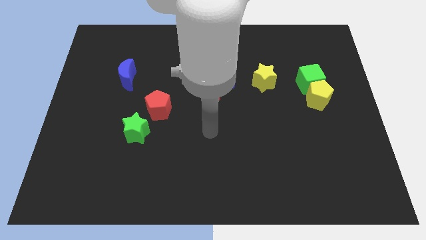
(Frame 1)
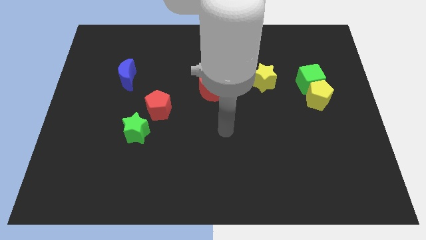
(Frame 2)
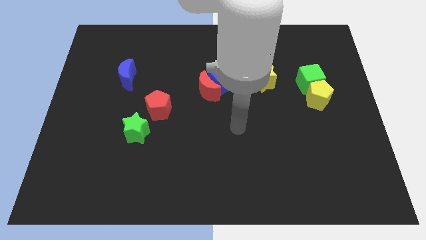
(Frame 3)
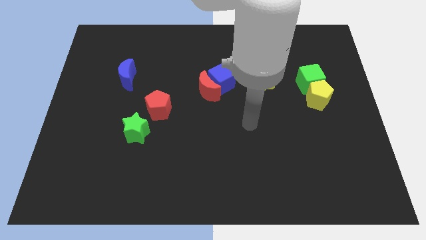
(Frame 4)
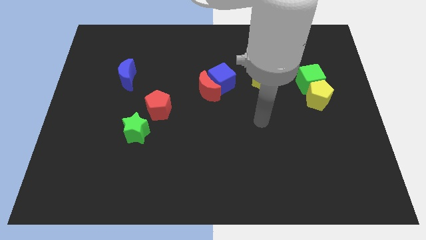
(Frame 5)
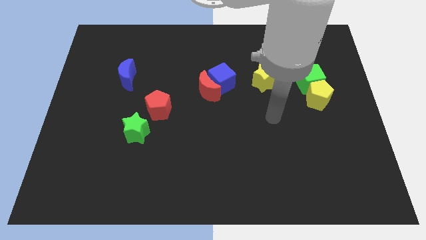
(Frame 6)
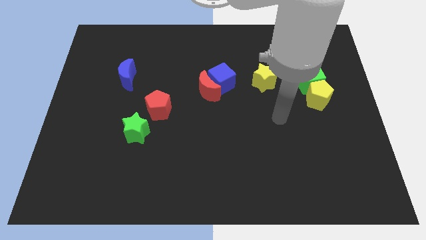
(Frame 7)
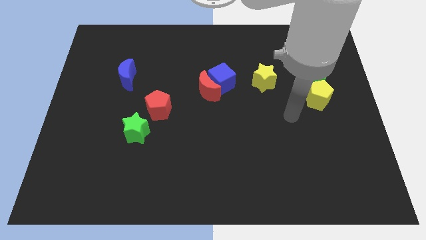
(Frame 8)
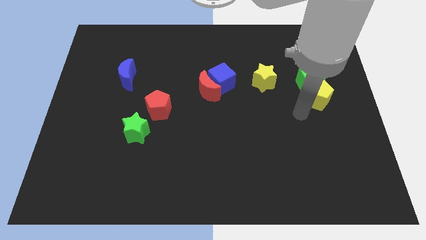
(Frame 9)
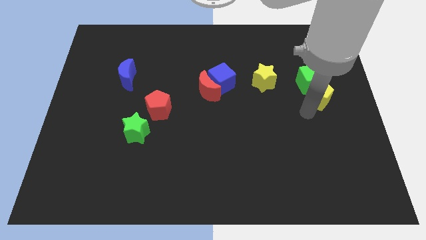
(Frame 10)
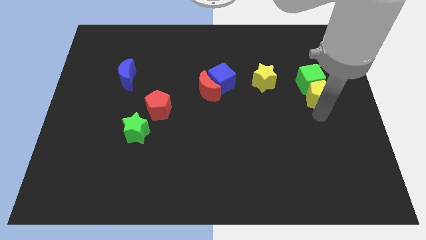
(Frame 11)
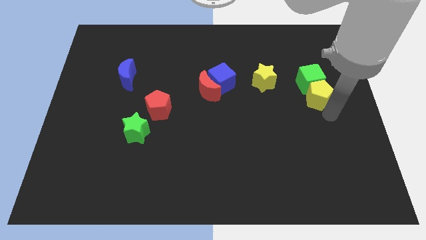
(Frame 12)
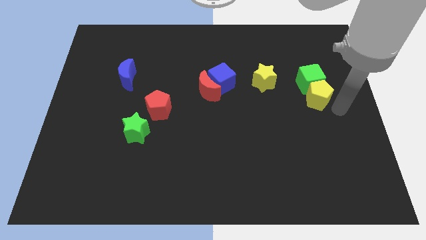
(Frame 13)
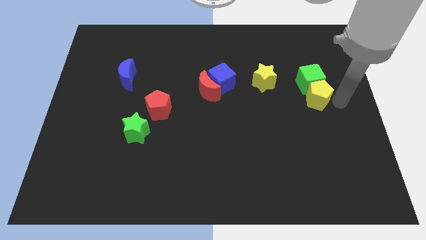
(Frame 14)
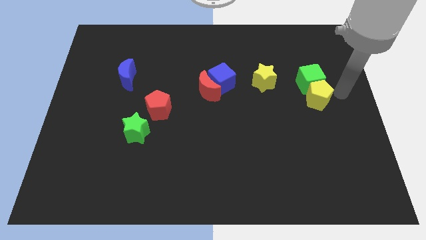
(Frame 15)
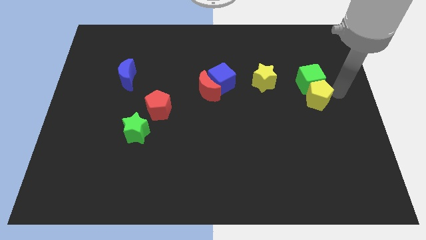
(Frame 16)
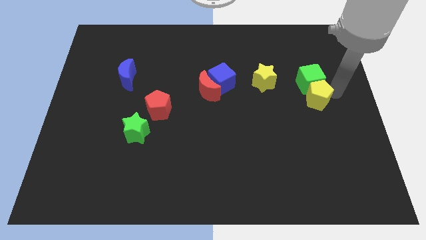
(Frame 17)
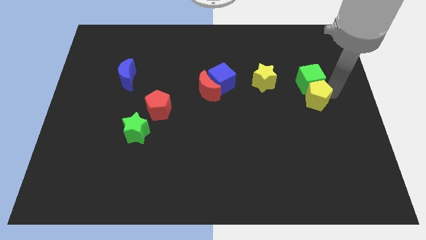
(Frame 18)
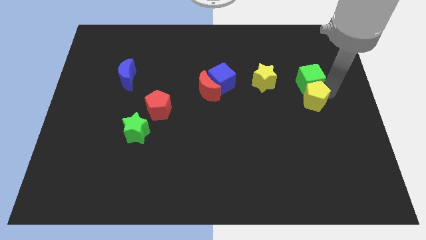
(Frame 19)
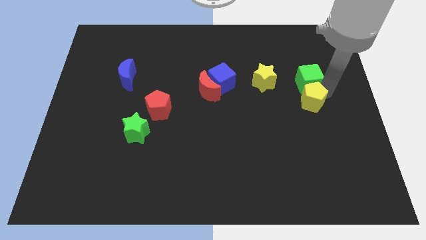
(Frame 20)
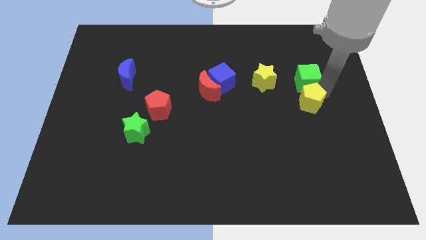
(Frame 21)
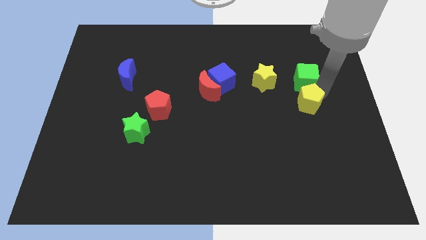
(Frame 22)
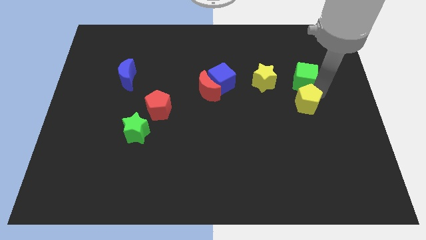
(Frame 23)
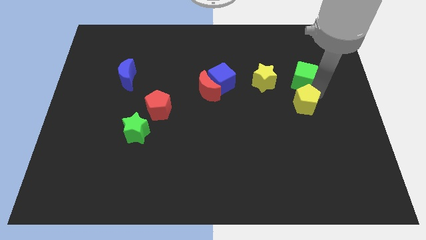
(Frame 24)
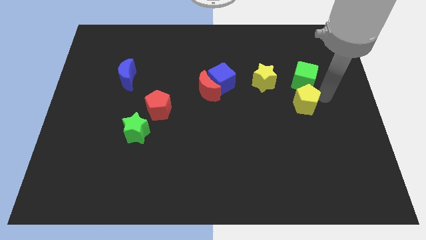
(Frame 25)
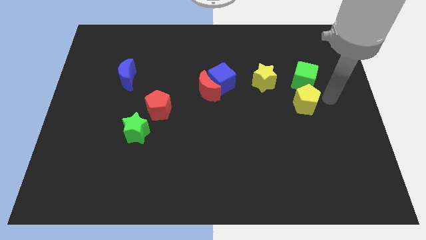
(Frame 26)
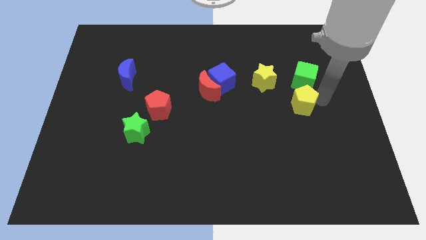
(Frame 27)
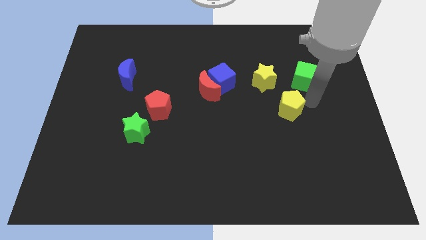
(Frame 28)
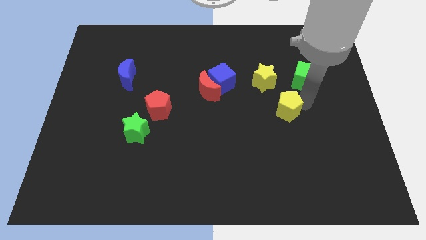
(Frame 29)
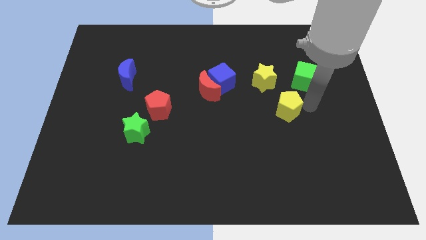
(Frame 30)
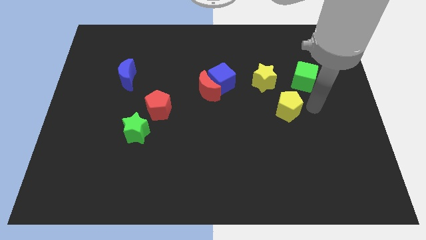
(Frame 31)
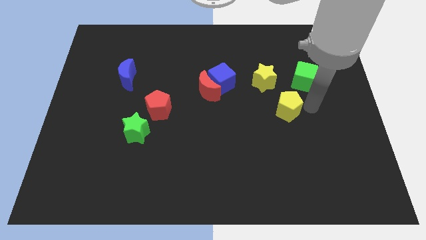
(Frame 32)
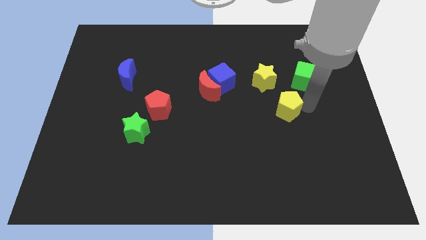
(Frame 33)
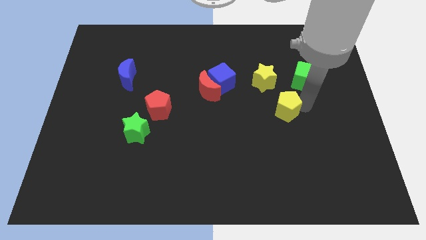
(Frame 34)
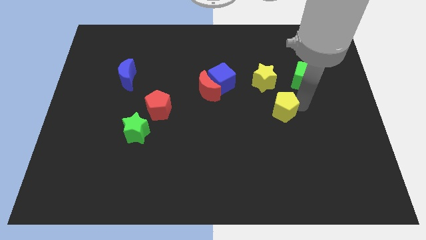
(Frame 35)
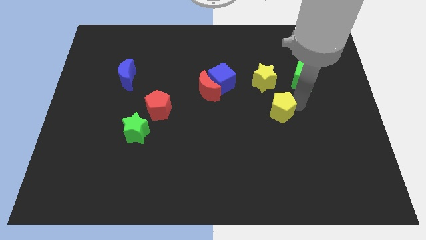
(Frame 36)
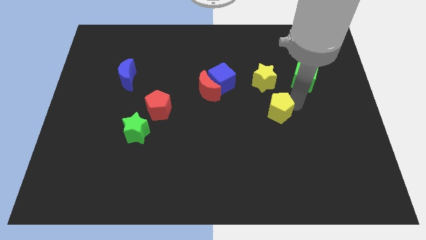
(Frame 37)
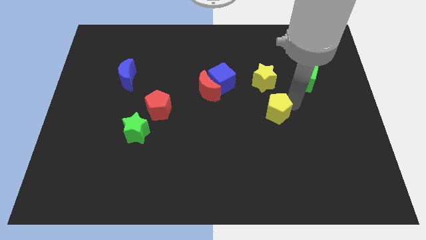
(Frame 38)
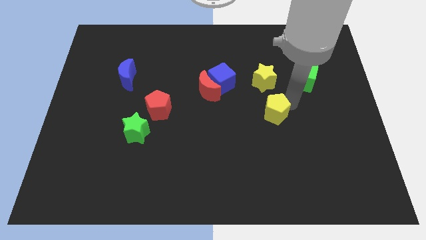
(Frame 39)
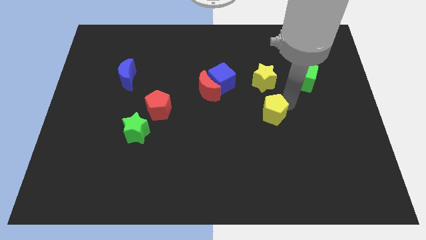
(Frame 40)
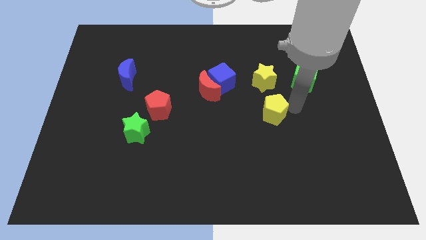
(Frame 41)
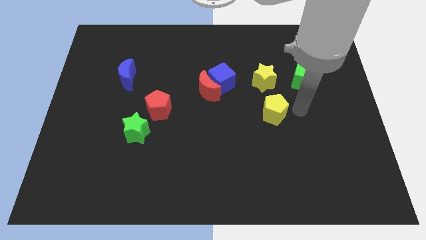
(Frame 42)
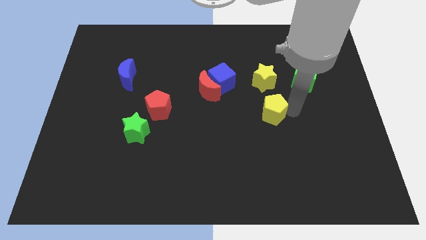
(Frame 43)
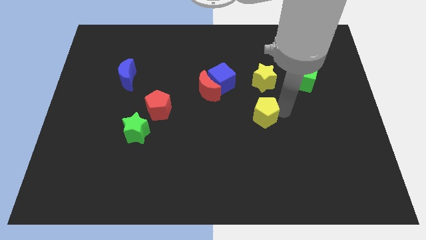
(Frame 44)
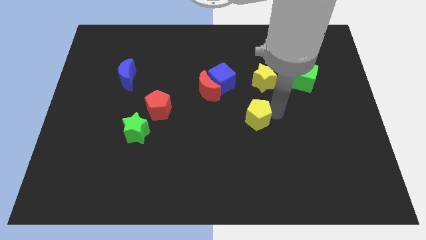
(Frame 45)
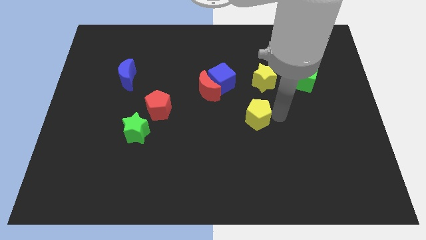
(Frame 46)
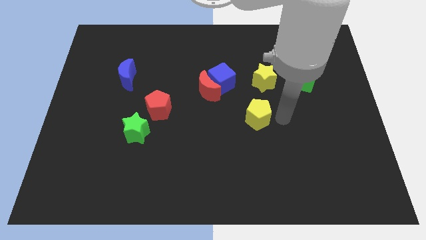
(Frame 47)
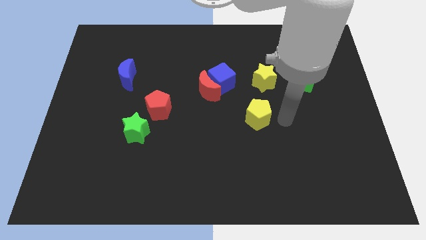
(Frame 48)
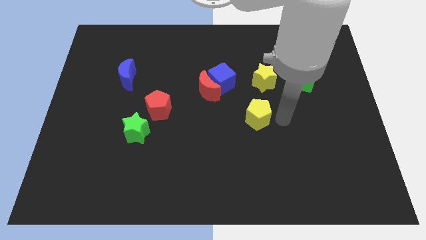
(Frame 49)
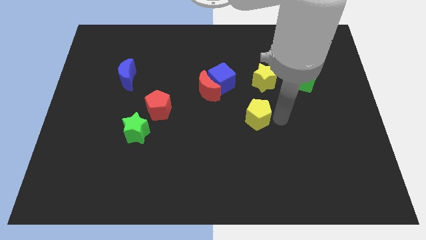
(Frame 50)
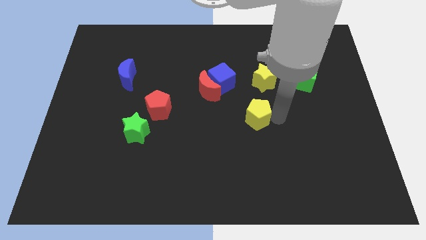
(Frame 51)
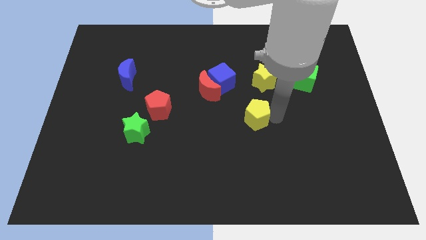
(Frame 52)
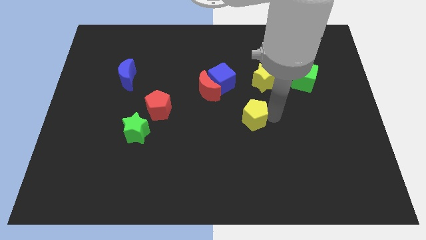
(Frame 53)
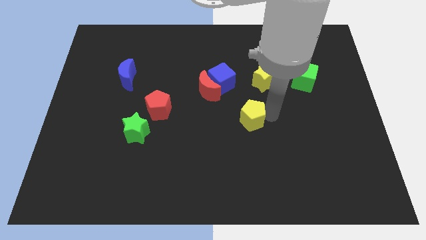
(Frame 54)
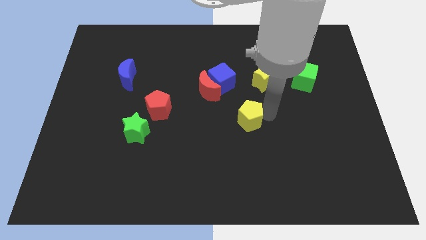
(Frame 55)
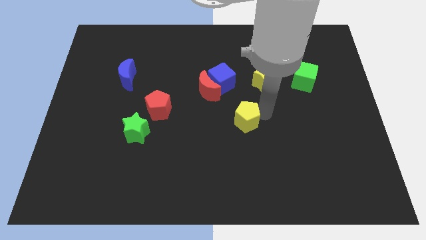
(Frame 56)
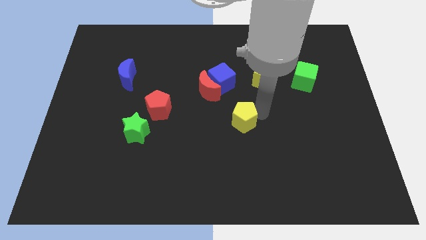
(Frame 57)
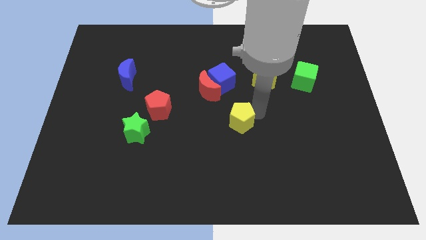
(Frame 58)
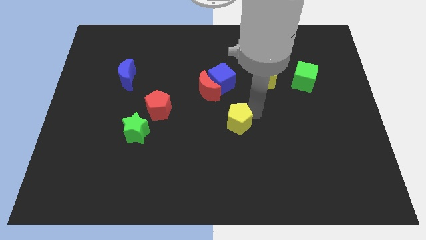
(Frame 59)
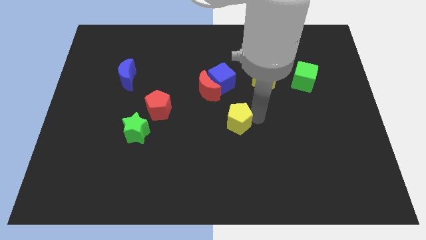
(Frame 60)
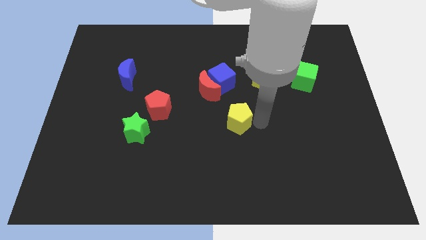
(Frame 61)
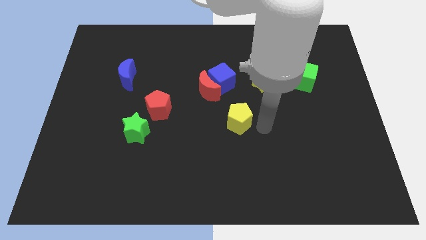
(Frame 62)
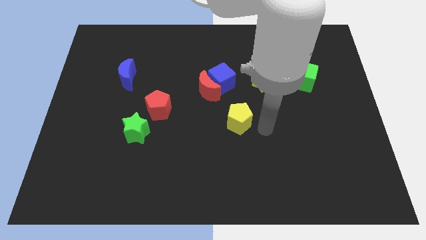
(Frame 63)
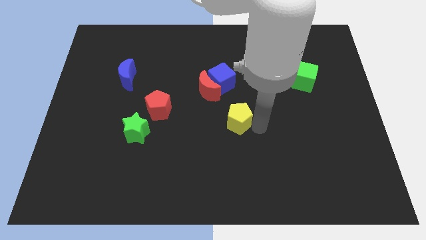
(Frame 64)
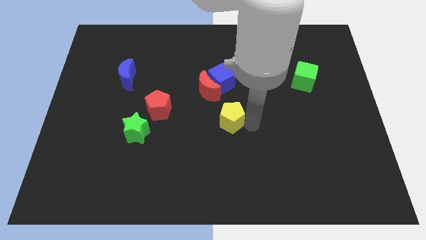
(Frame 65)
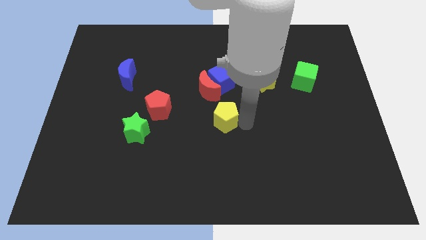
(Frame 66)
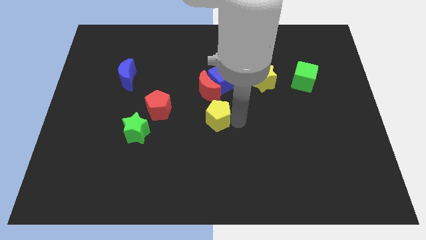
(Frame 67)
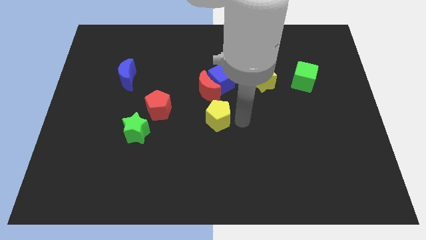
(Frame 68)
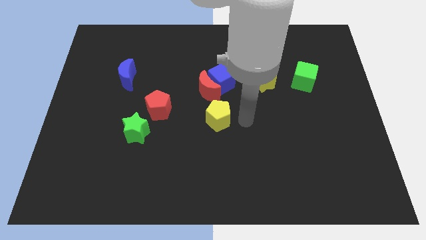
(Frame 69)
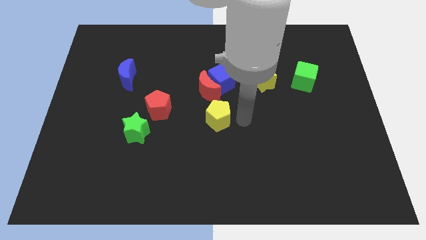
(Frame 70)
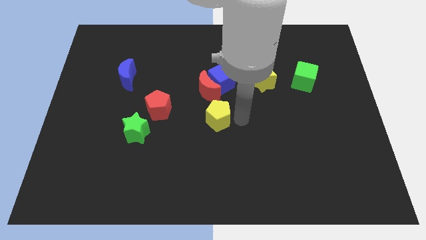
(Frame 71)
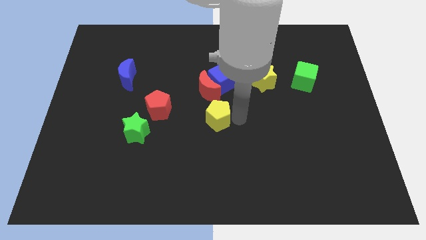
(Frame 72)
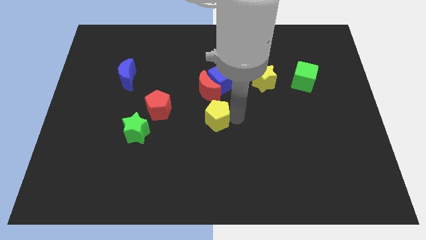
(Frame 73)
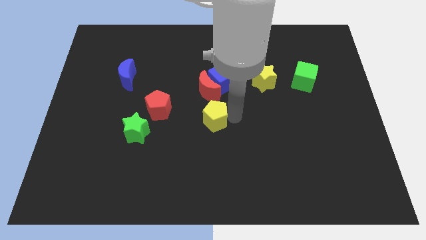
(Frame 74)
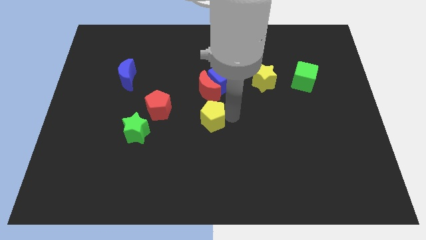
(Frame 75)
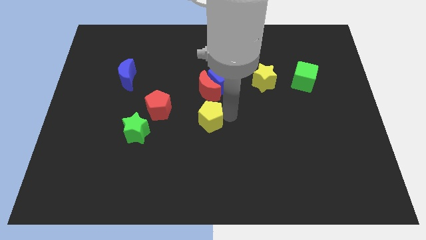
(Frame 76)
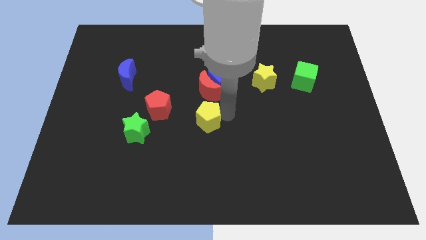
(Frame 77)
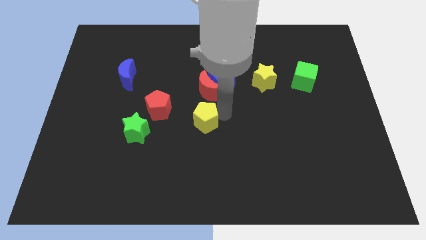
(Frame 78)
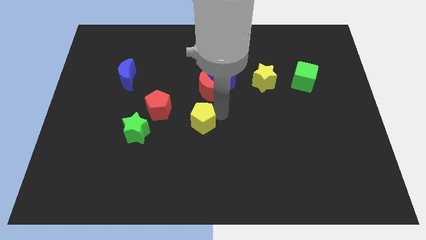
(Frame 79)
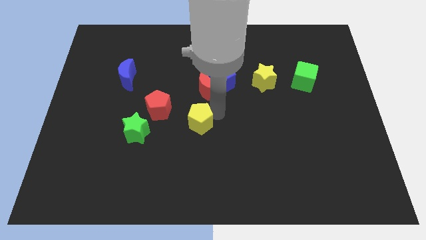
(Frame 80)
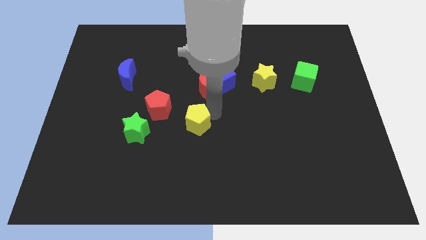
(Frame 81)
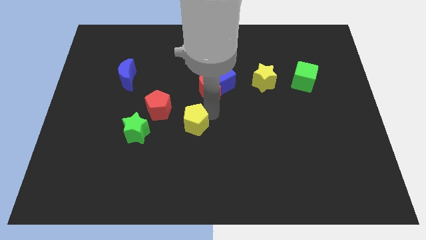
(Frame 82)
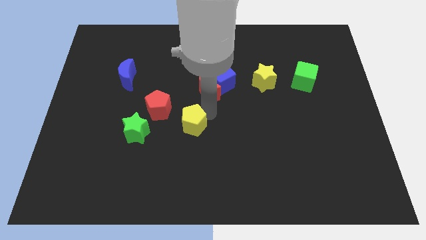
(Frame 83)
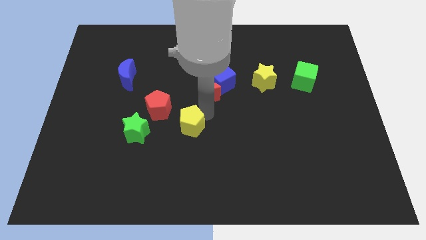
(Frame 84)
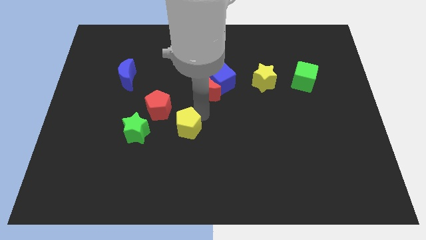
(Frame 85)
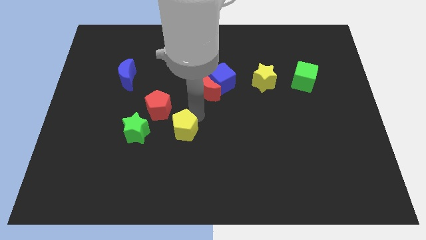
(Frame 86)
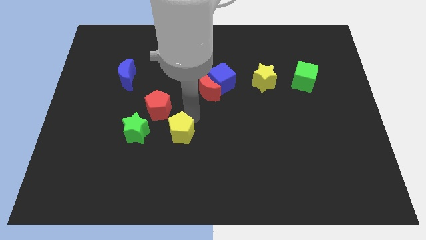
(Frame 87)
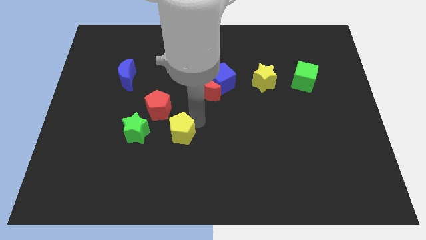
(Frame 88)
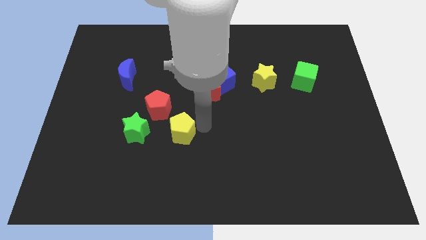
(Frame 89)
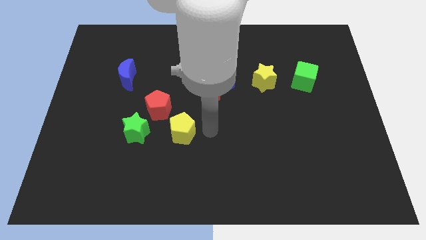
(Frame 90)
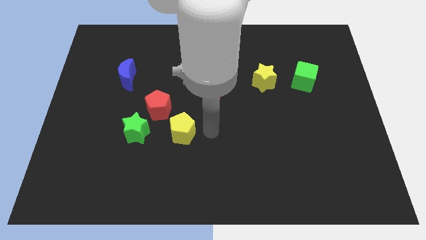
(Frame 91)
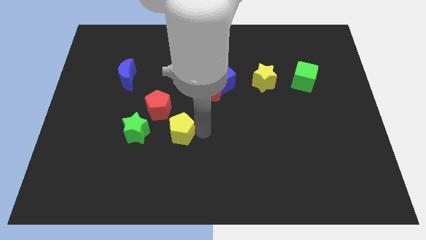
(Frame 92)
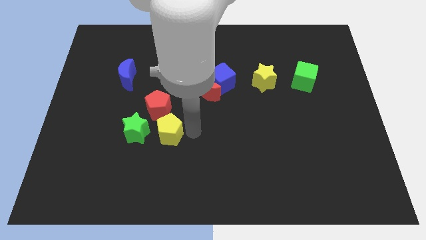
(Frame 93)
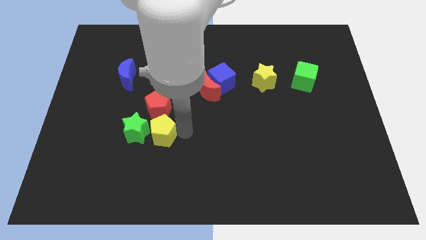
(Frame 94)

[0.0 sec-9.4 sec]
push the yellow pentagon close to the green star
